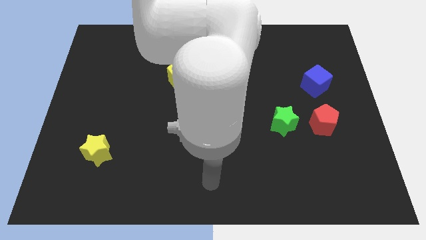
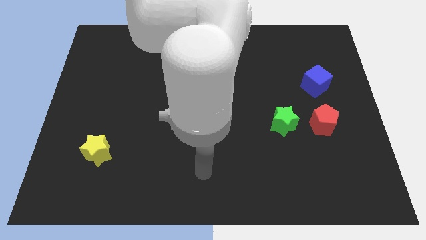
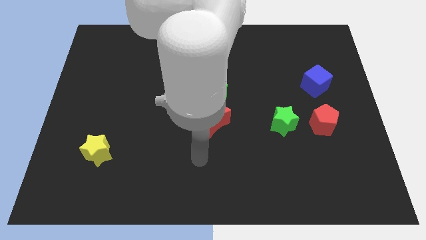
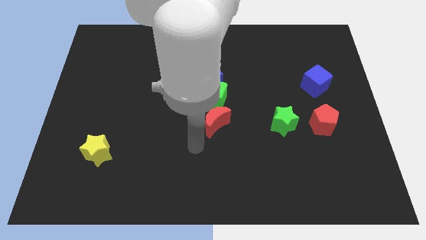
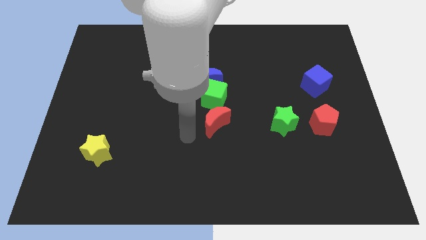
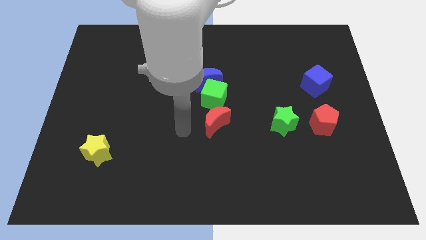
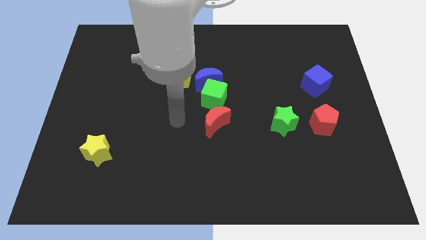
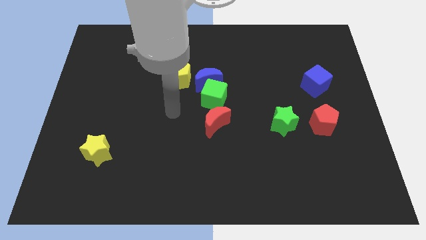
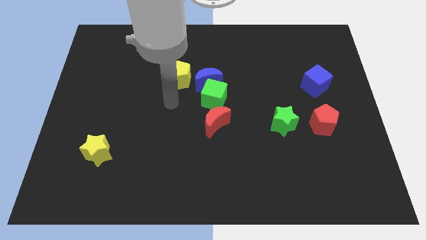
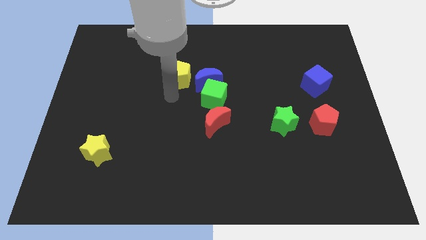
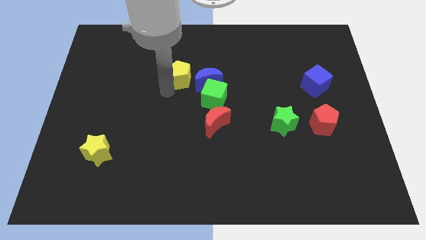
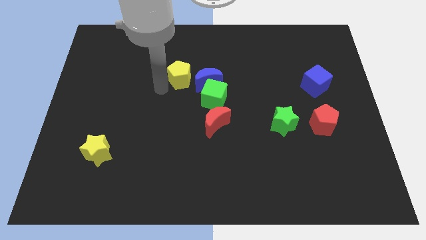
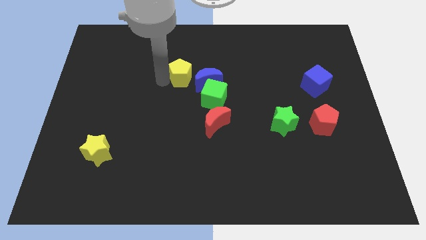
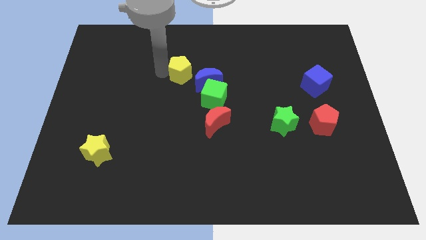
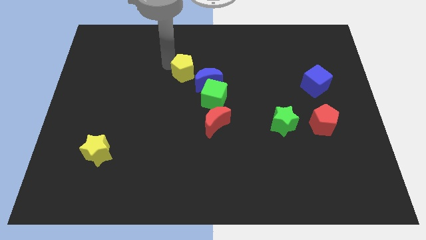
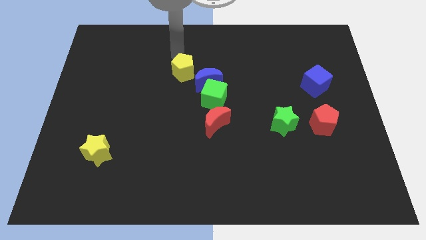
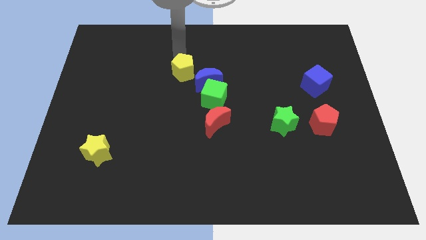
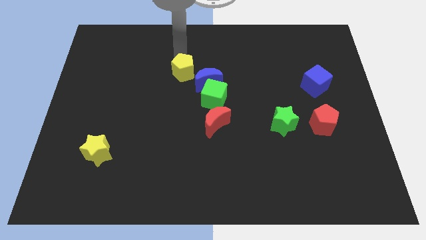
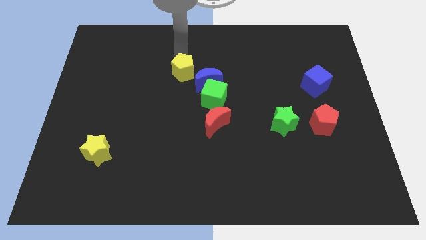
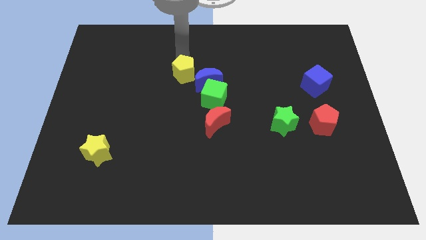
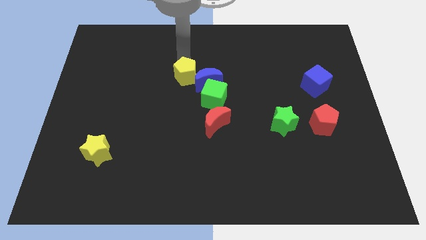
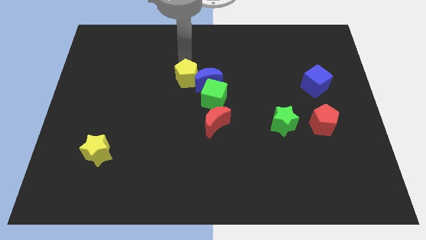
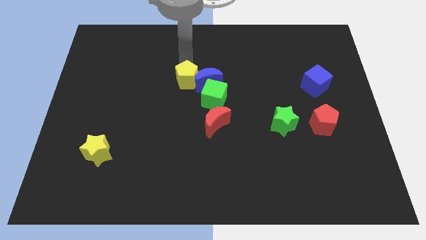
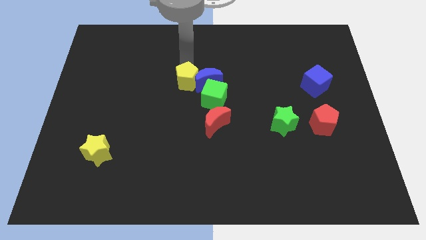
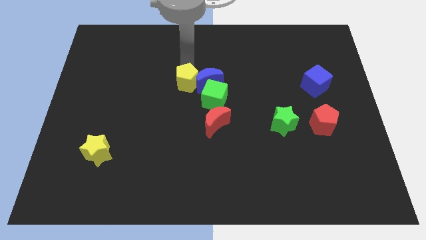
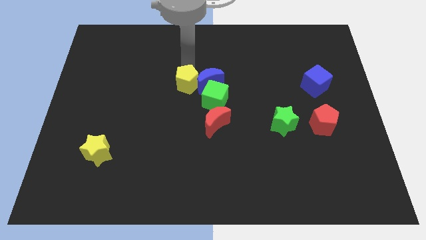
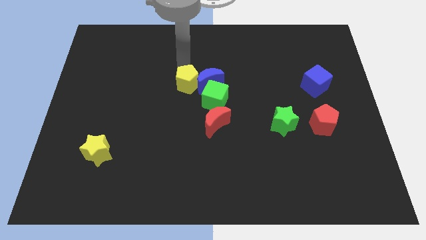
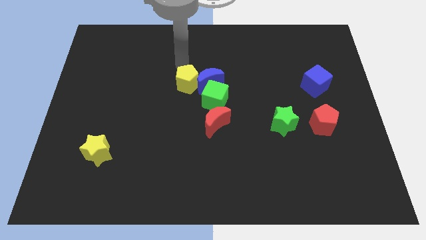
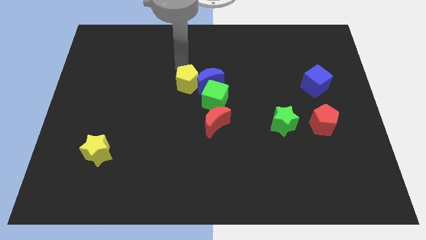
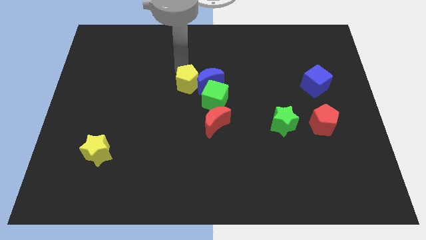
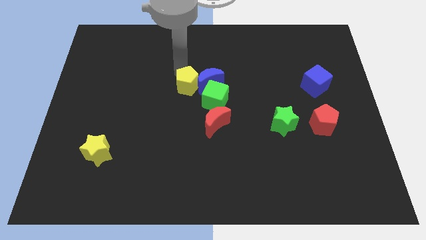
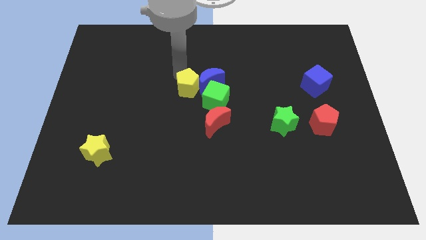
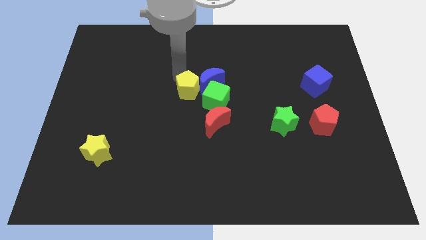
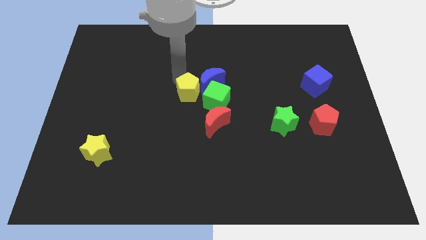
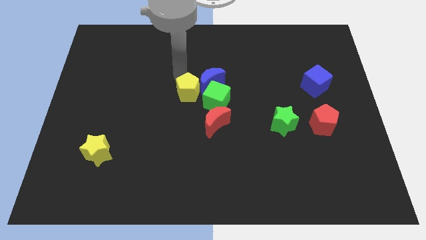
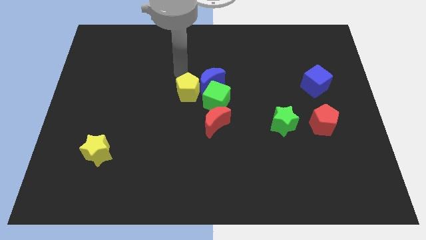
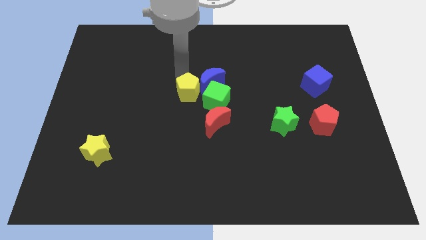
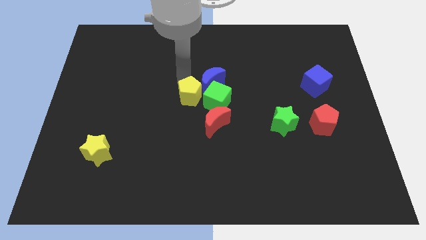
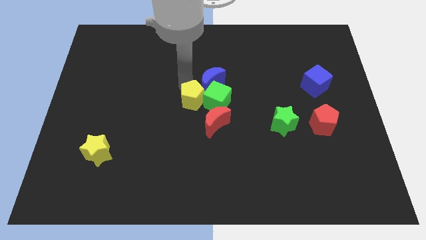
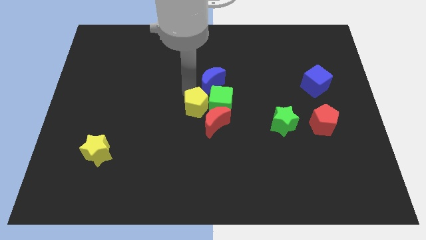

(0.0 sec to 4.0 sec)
slide the yellow pentagon a little bit diagonally downwards and right

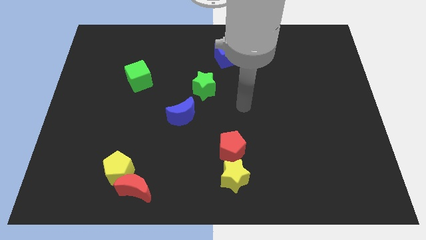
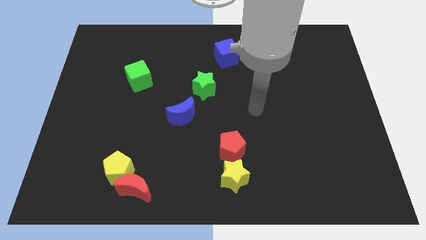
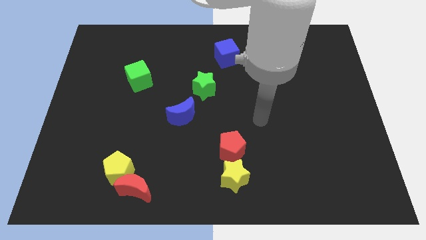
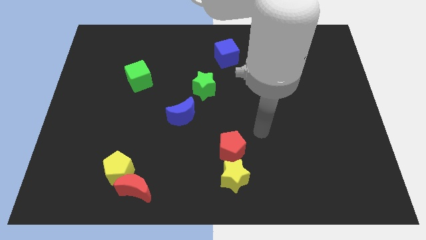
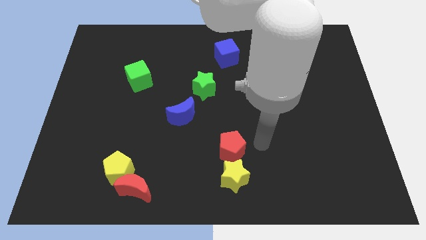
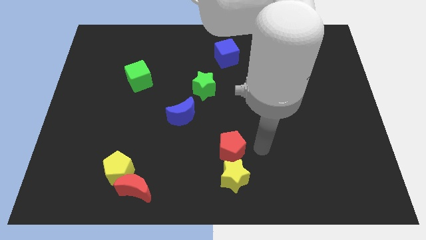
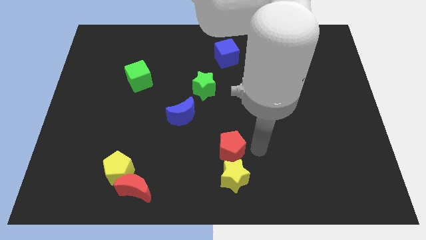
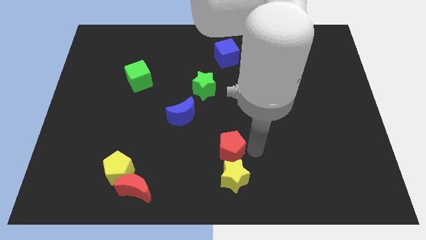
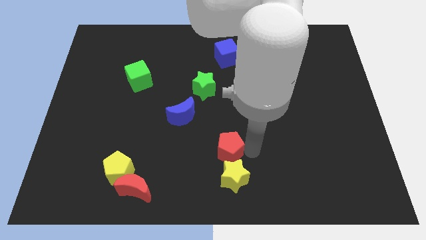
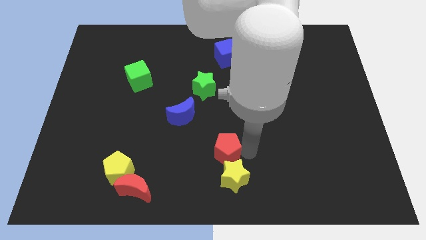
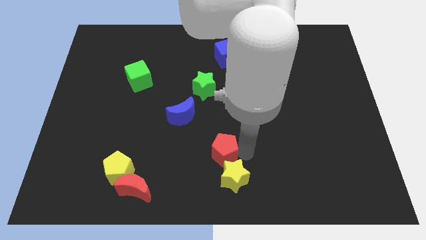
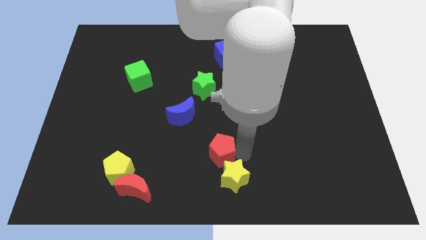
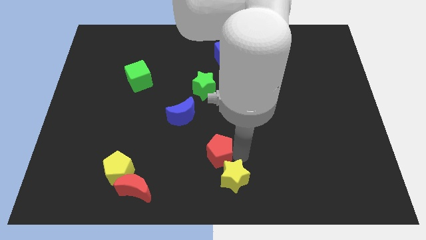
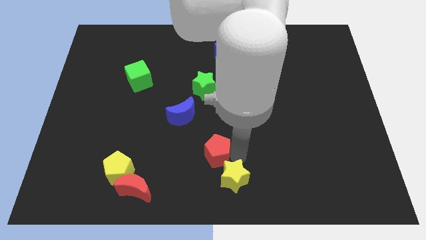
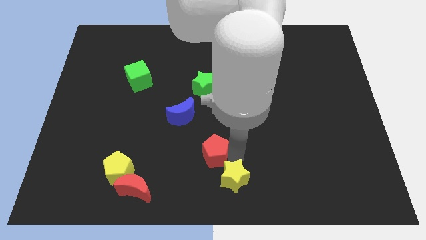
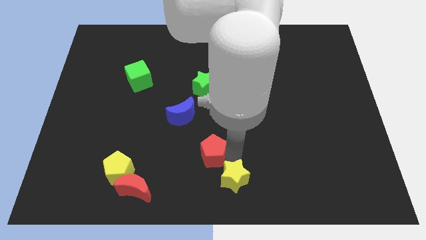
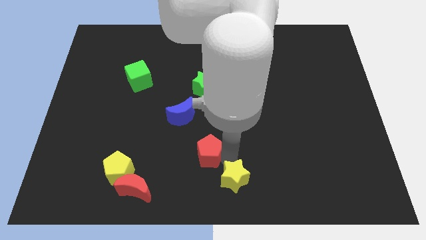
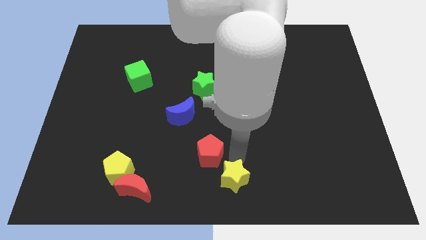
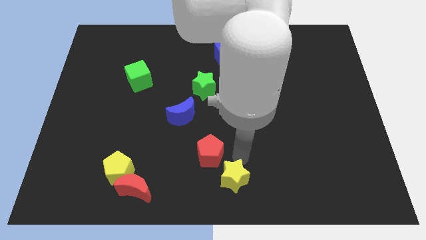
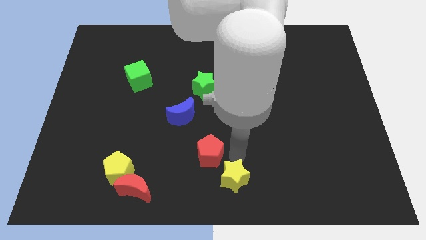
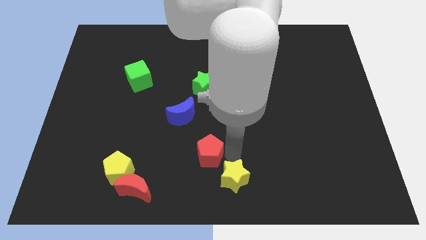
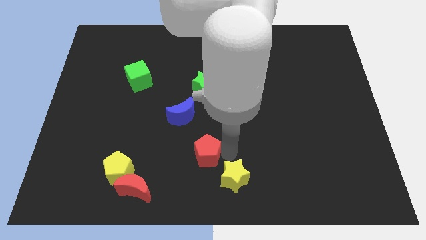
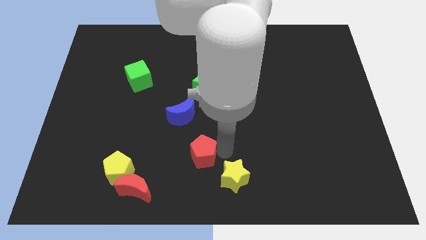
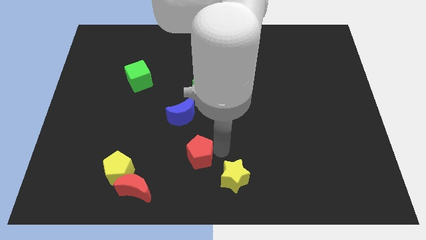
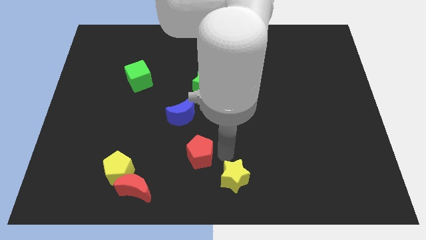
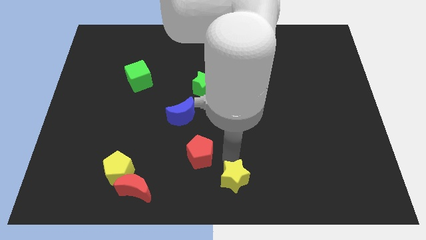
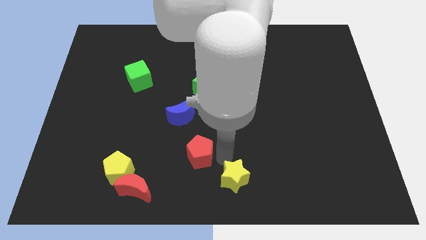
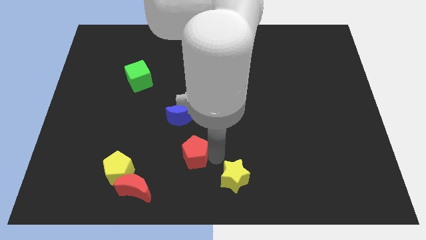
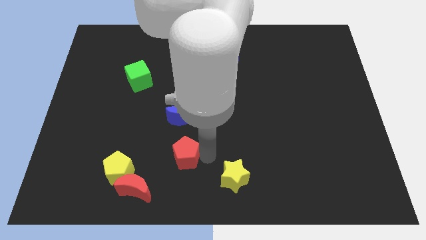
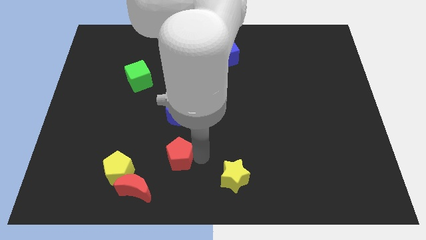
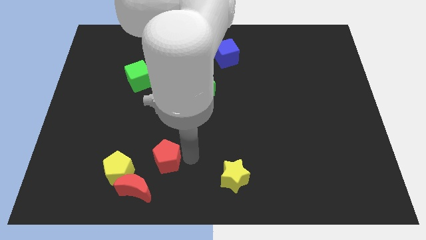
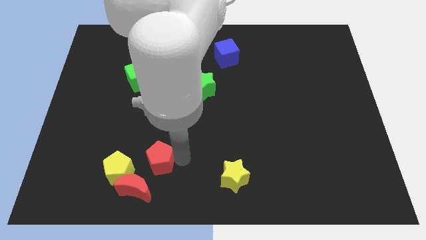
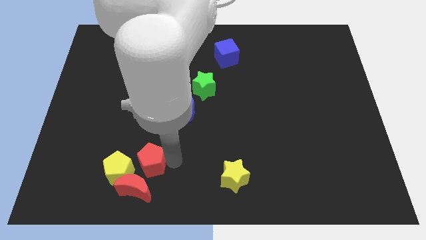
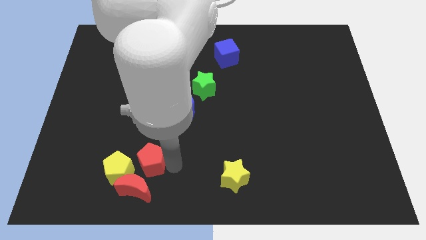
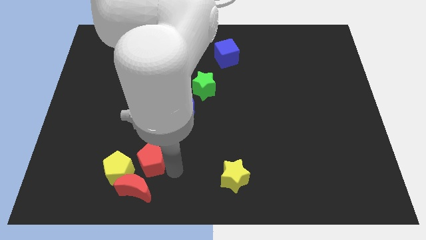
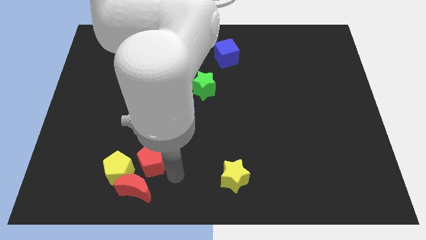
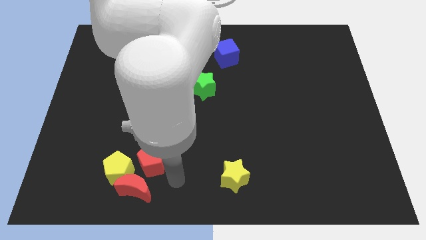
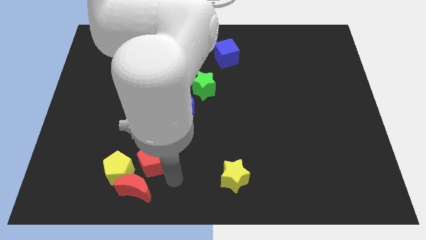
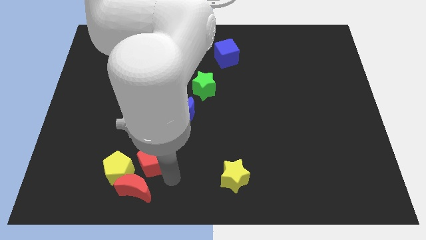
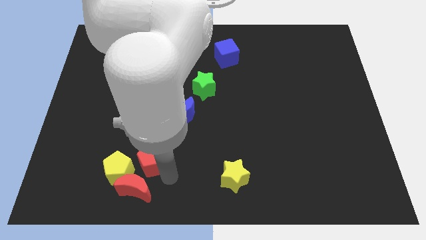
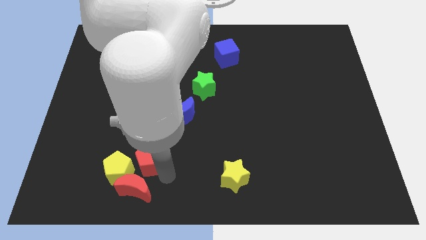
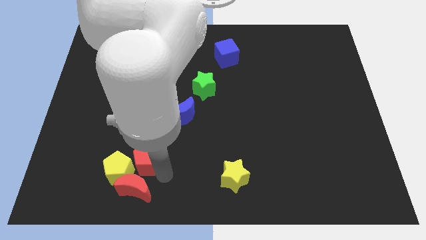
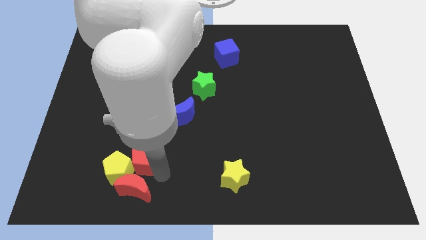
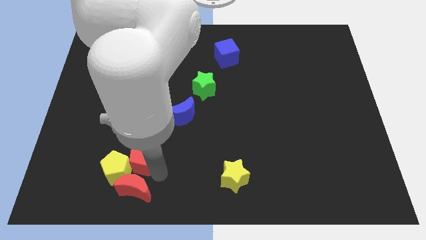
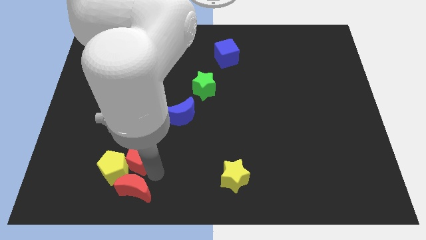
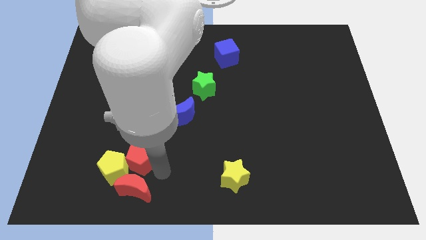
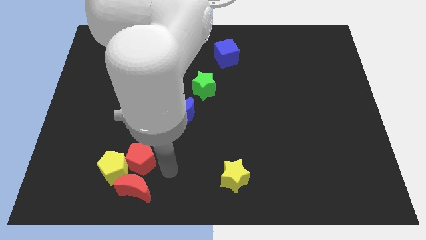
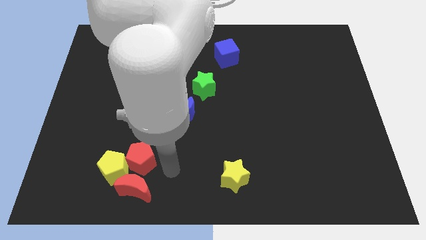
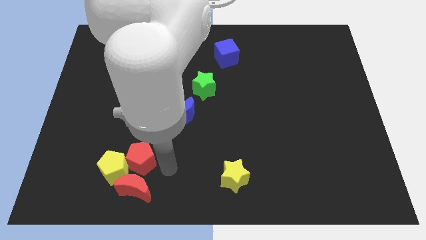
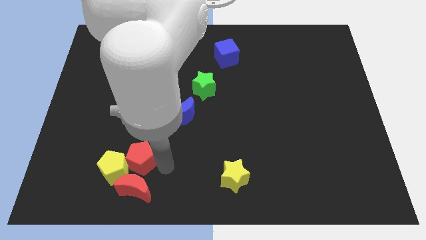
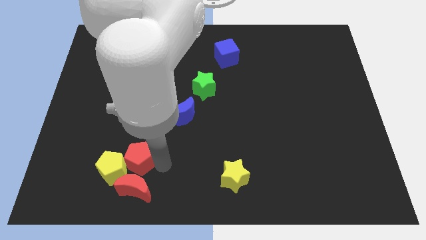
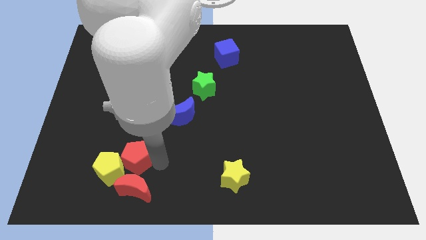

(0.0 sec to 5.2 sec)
slide the red pentagon left
